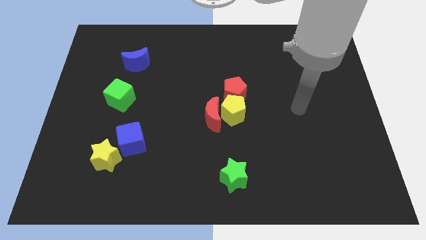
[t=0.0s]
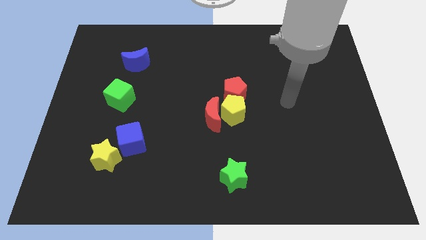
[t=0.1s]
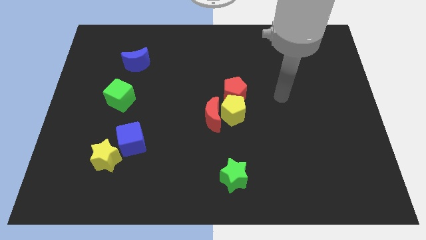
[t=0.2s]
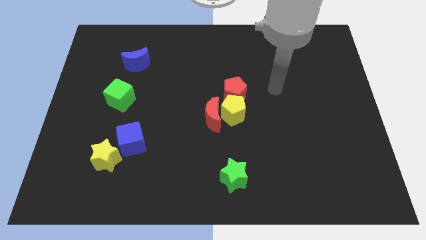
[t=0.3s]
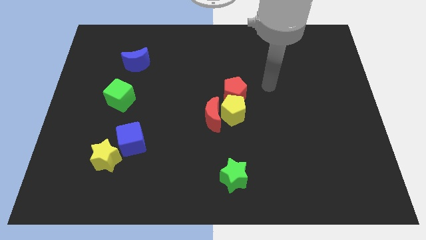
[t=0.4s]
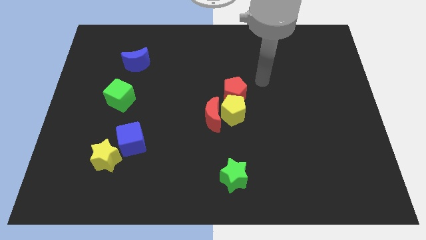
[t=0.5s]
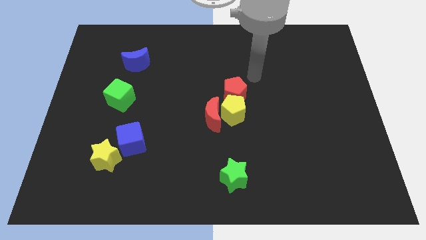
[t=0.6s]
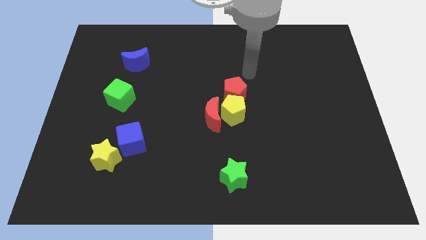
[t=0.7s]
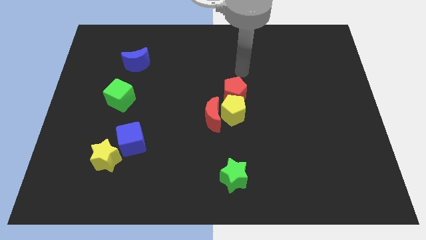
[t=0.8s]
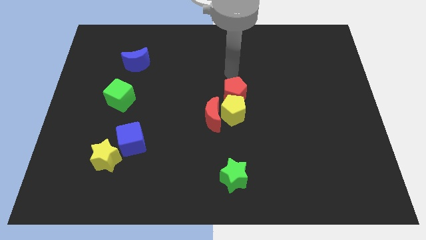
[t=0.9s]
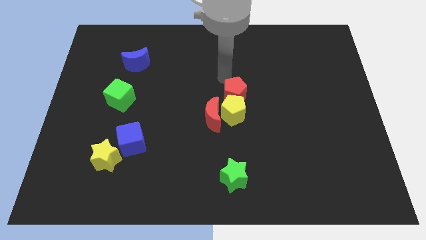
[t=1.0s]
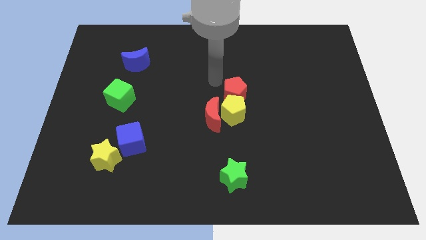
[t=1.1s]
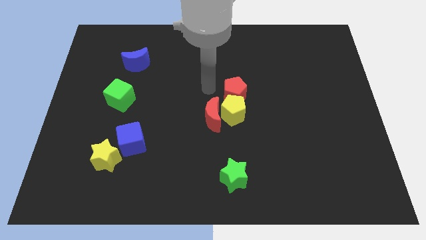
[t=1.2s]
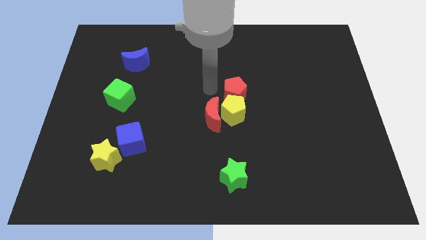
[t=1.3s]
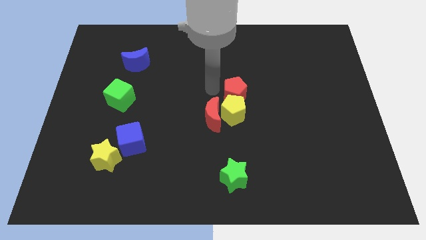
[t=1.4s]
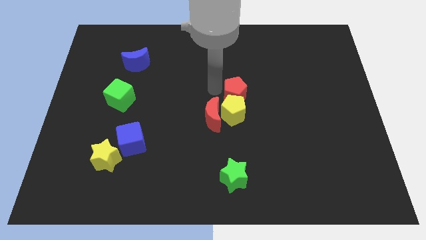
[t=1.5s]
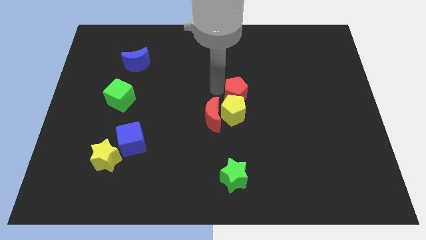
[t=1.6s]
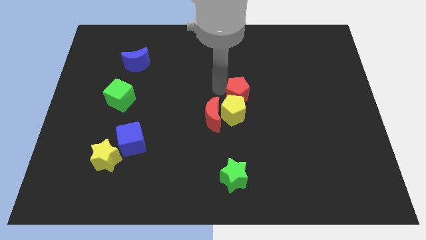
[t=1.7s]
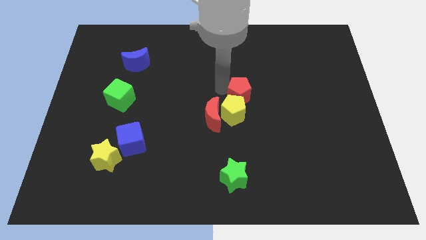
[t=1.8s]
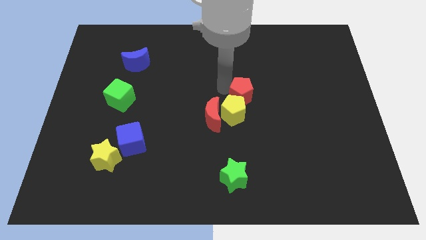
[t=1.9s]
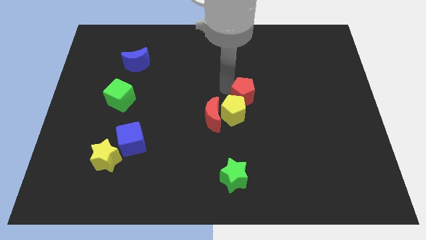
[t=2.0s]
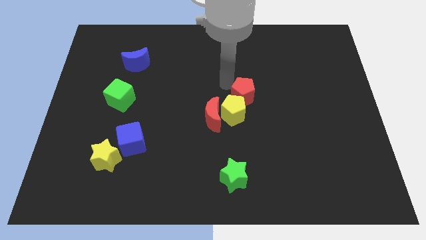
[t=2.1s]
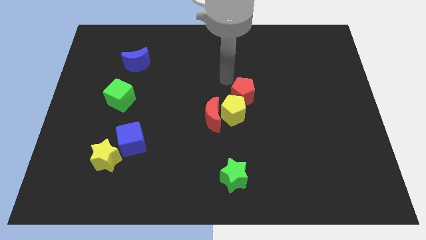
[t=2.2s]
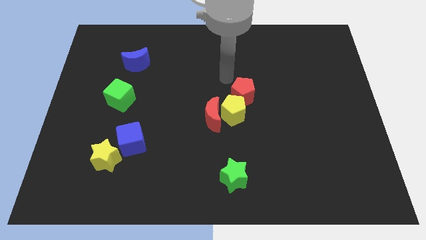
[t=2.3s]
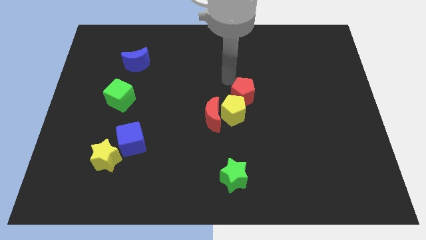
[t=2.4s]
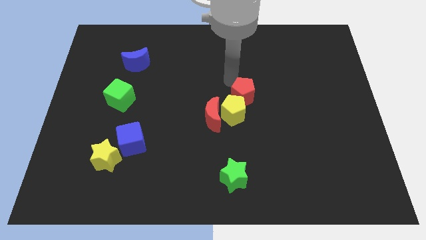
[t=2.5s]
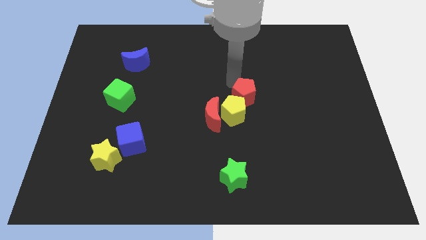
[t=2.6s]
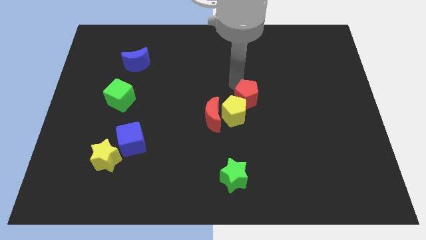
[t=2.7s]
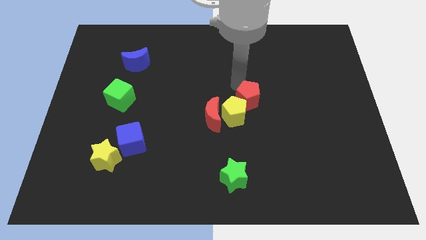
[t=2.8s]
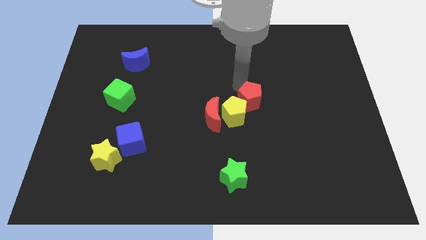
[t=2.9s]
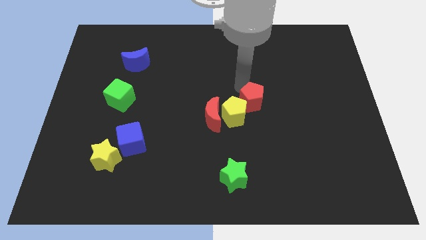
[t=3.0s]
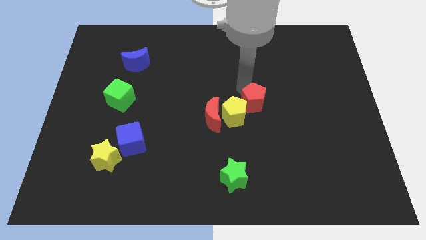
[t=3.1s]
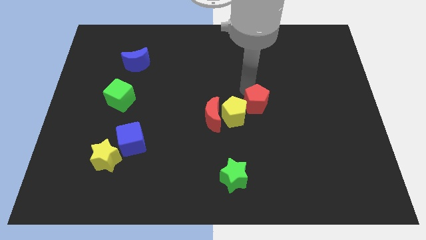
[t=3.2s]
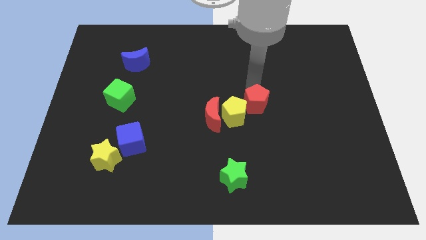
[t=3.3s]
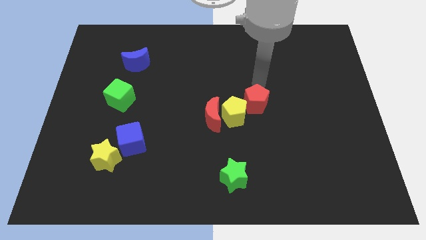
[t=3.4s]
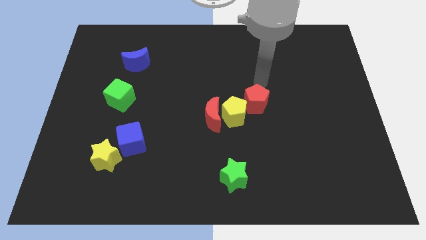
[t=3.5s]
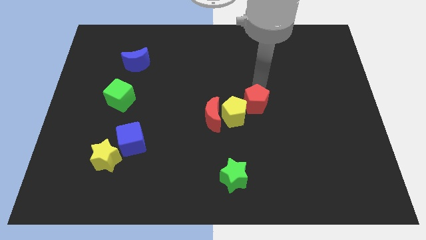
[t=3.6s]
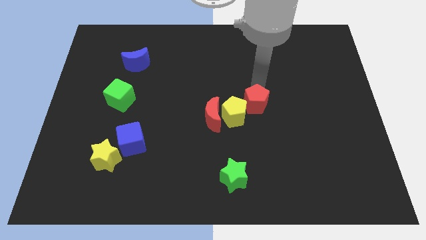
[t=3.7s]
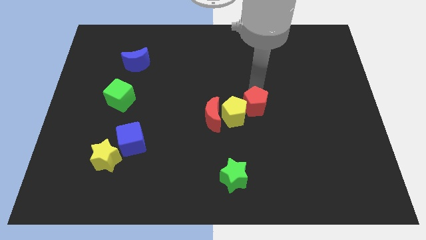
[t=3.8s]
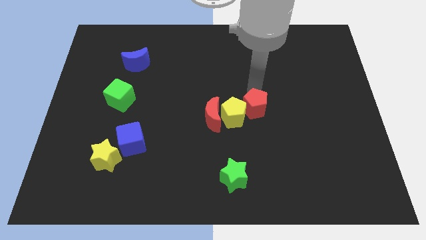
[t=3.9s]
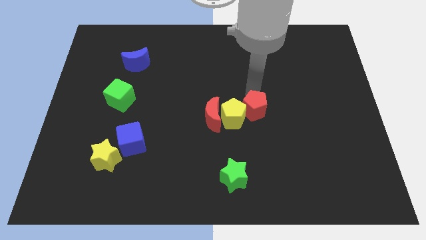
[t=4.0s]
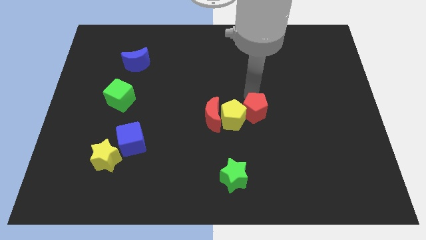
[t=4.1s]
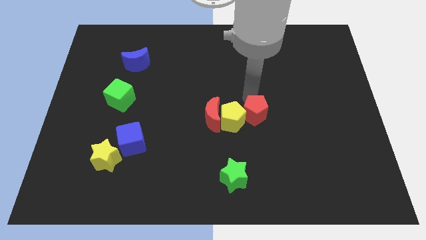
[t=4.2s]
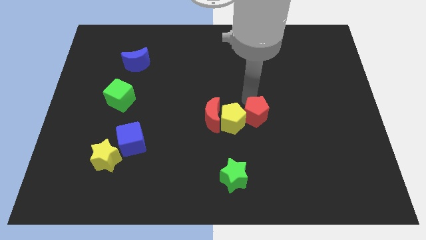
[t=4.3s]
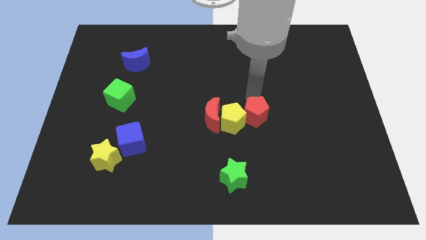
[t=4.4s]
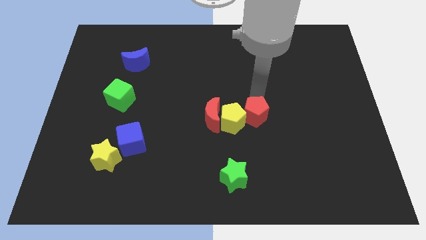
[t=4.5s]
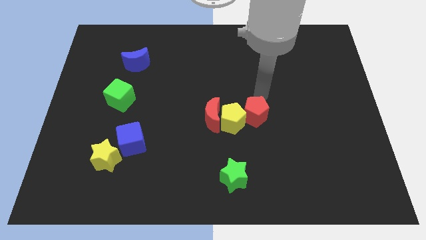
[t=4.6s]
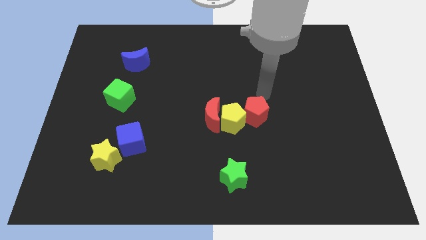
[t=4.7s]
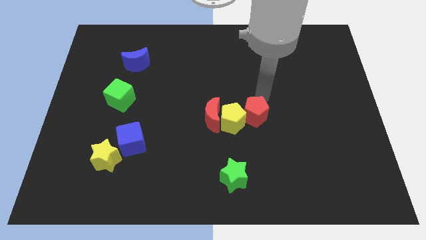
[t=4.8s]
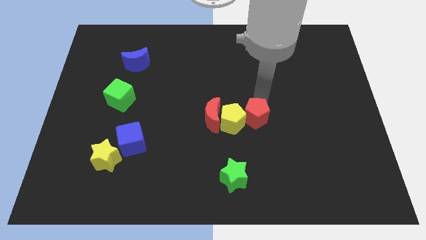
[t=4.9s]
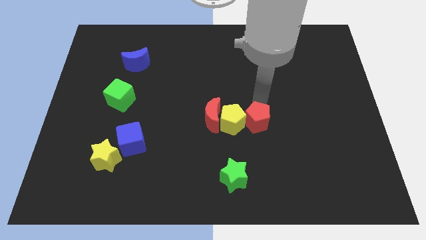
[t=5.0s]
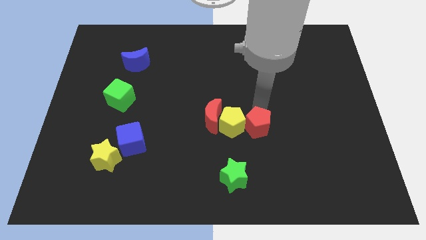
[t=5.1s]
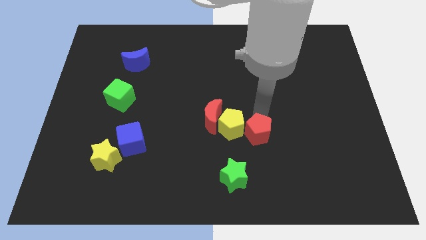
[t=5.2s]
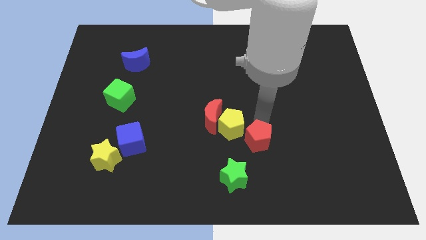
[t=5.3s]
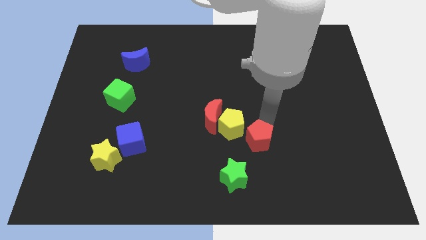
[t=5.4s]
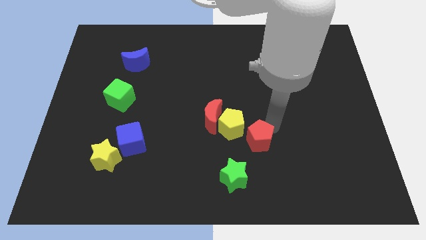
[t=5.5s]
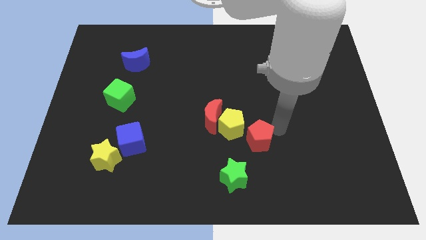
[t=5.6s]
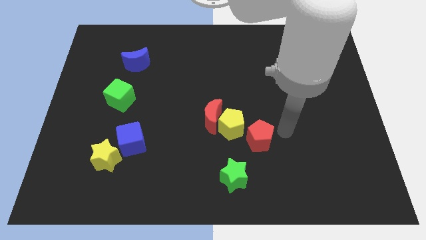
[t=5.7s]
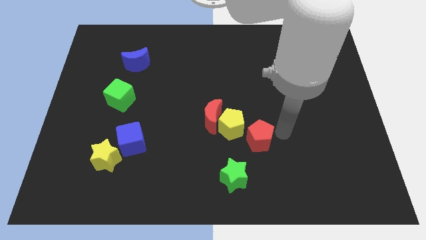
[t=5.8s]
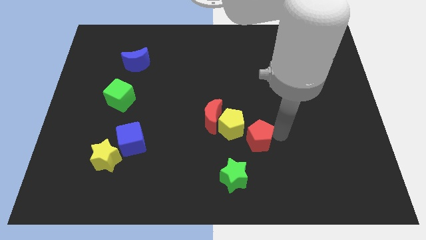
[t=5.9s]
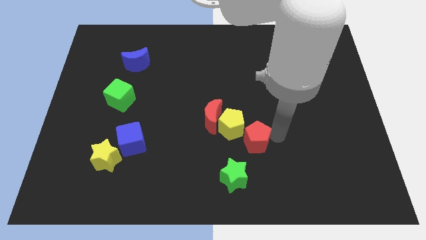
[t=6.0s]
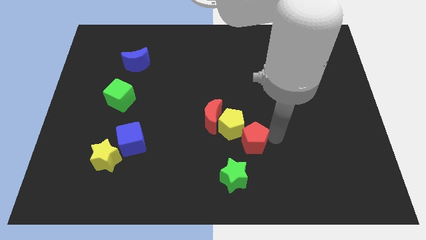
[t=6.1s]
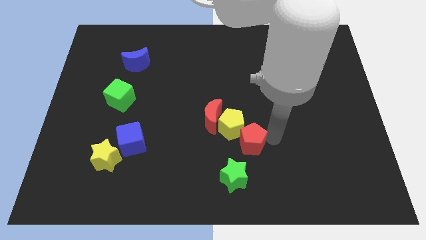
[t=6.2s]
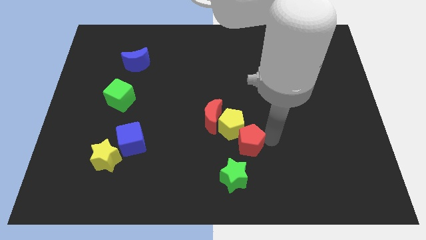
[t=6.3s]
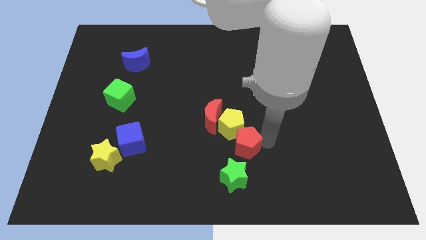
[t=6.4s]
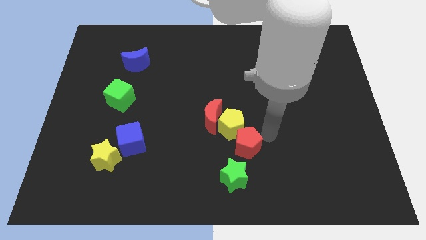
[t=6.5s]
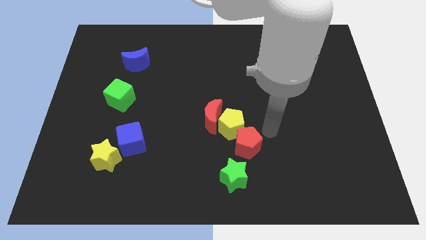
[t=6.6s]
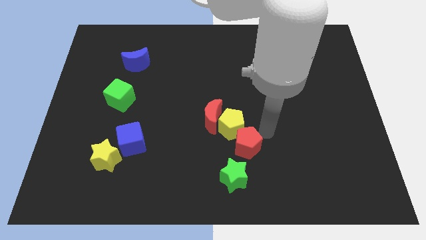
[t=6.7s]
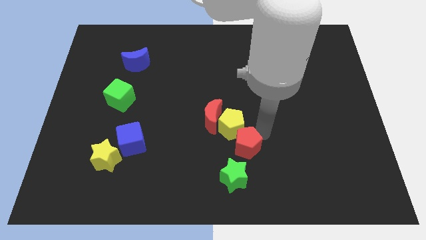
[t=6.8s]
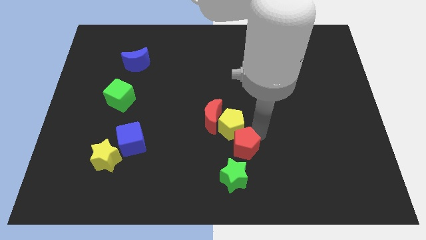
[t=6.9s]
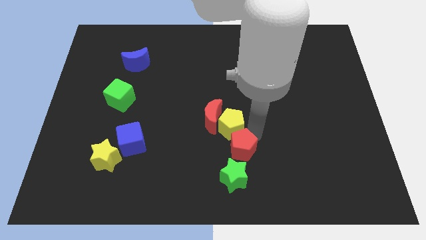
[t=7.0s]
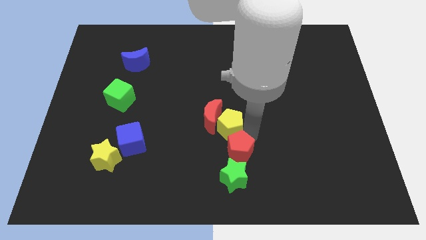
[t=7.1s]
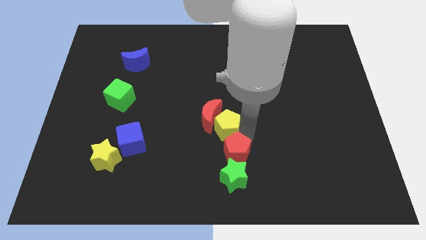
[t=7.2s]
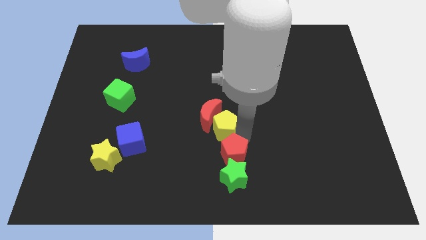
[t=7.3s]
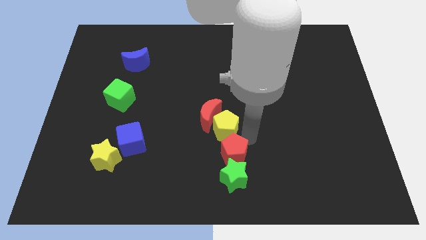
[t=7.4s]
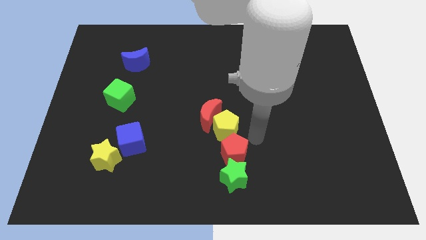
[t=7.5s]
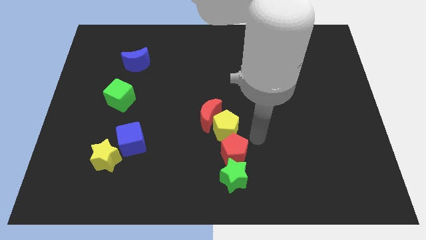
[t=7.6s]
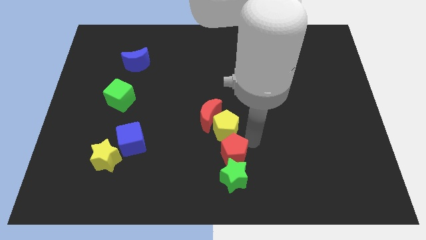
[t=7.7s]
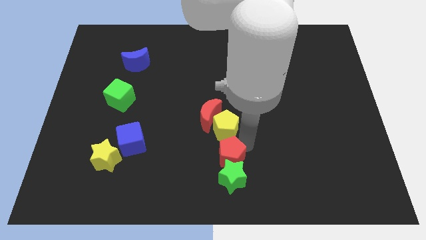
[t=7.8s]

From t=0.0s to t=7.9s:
move the red pentagon to the bottom
